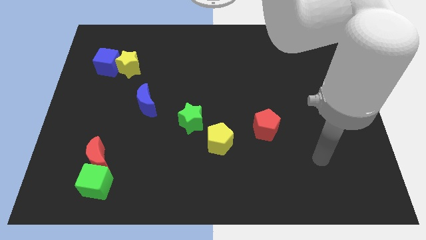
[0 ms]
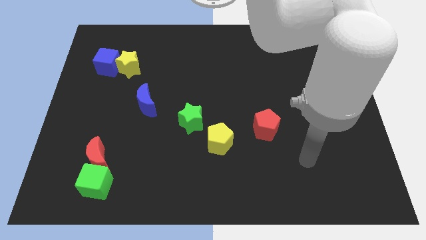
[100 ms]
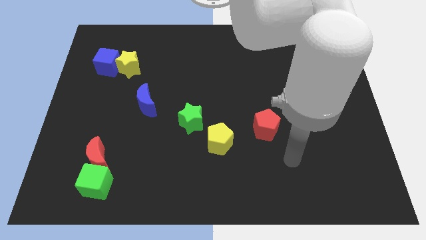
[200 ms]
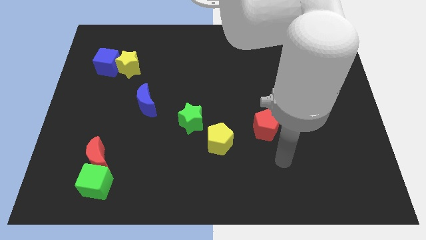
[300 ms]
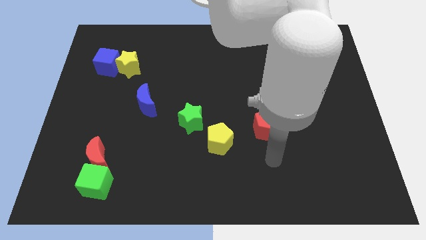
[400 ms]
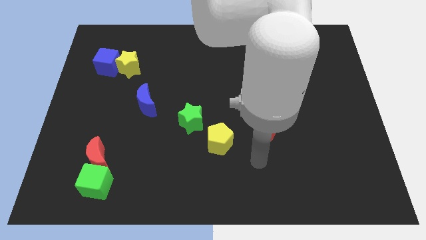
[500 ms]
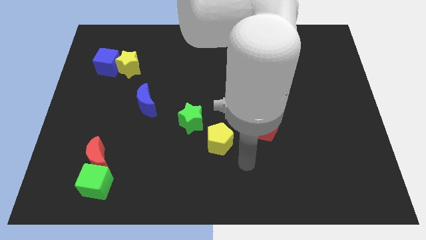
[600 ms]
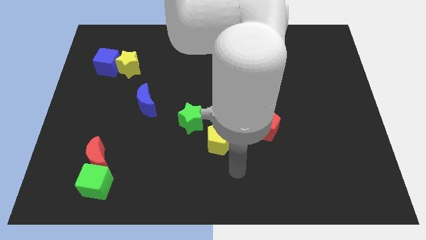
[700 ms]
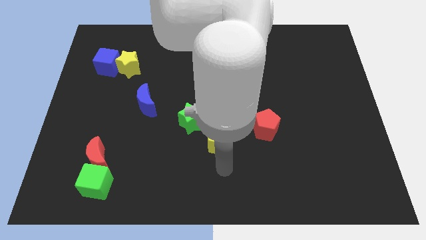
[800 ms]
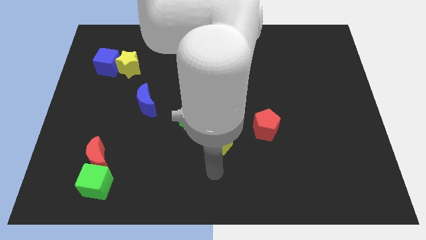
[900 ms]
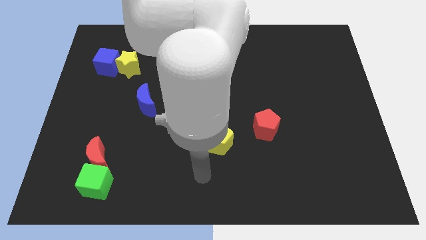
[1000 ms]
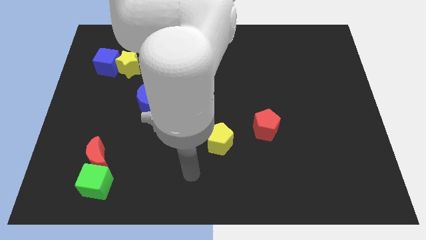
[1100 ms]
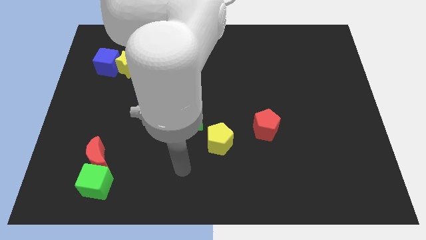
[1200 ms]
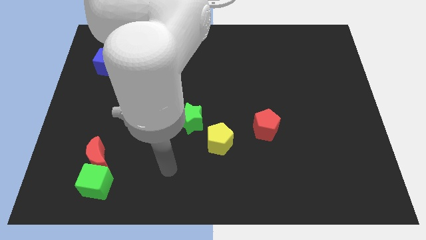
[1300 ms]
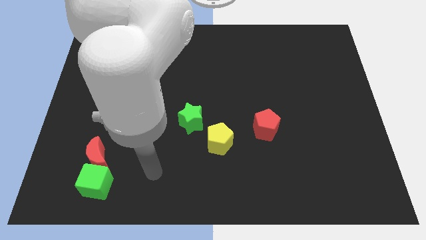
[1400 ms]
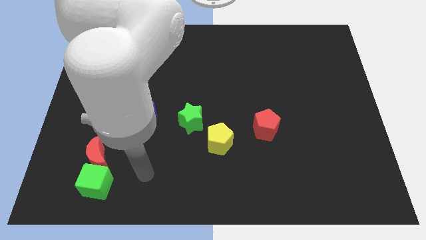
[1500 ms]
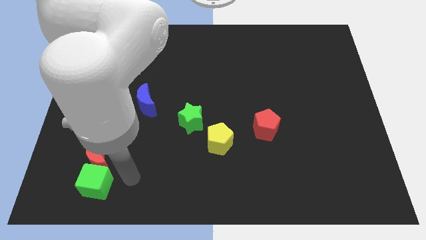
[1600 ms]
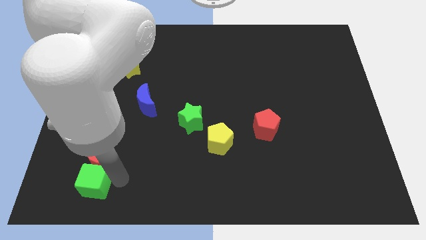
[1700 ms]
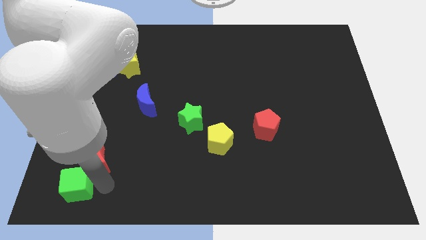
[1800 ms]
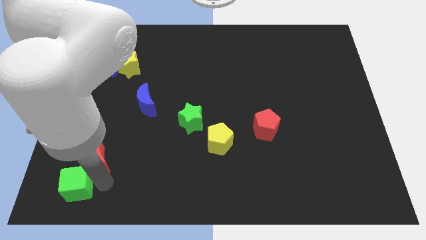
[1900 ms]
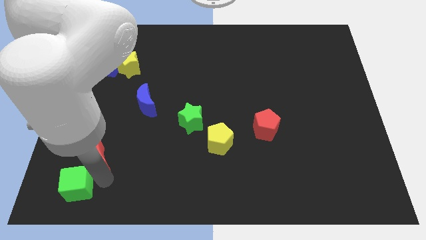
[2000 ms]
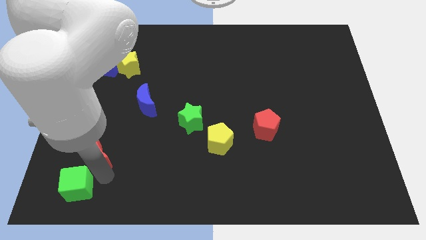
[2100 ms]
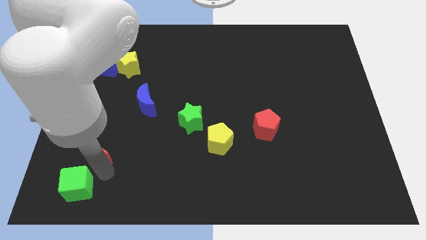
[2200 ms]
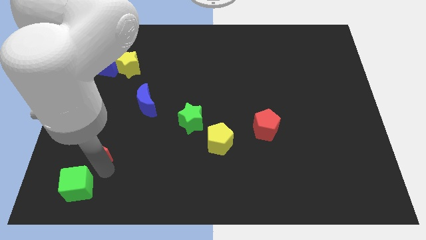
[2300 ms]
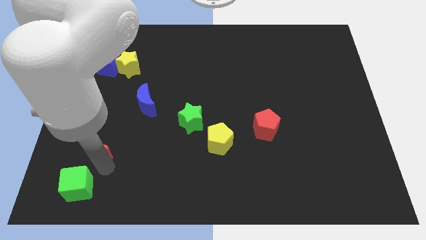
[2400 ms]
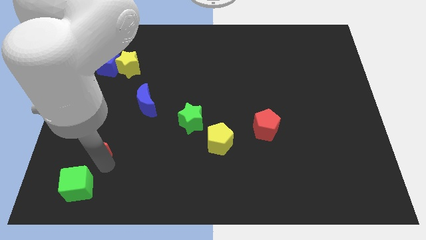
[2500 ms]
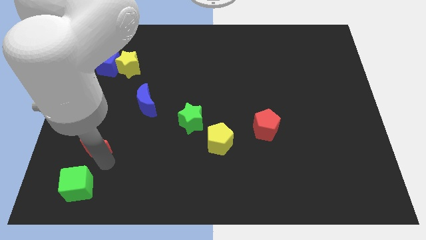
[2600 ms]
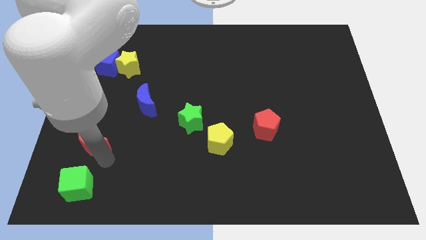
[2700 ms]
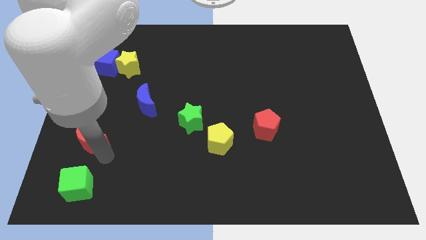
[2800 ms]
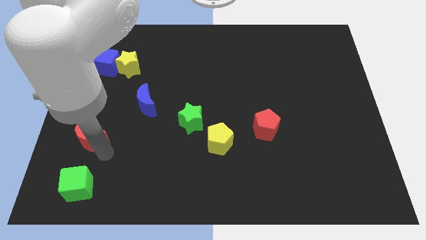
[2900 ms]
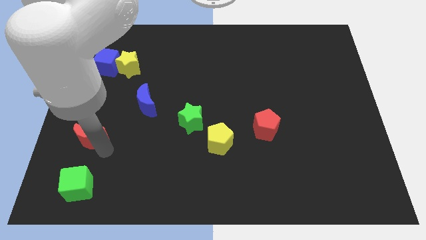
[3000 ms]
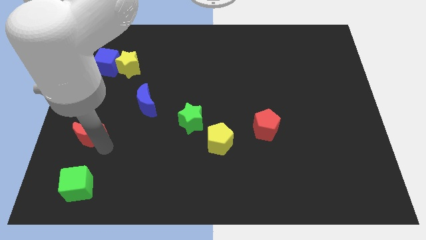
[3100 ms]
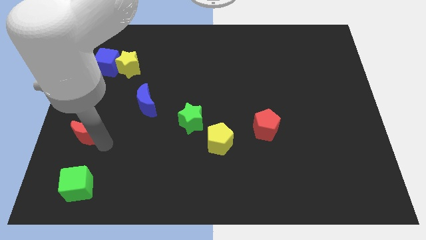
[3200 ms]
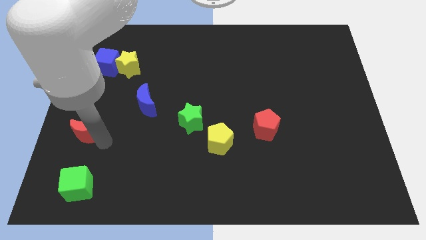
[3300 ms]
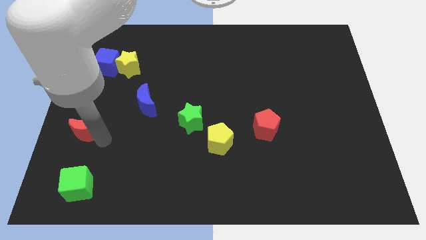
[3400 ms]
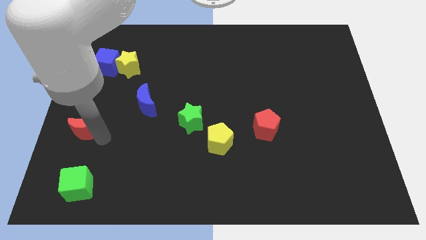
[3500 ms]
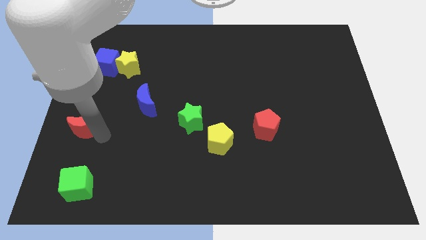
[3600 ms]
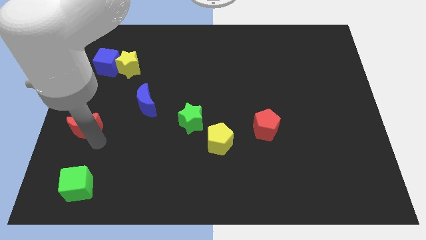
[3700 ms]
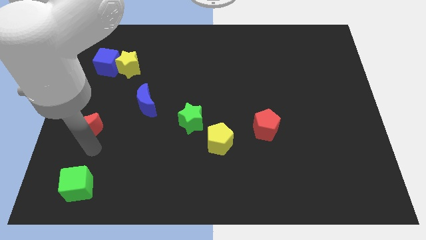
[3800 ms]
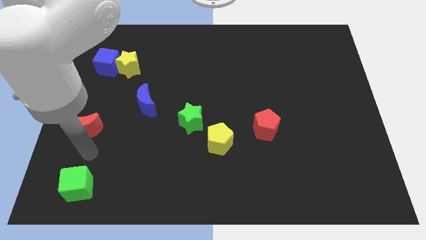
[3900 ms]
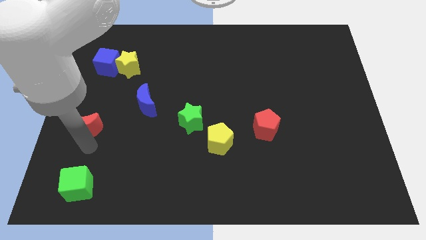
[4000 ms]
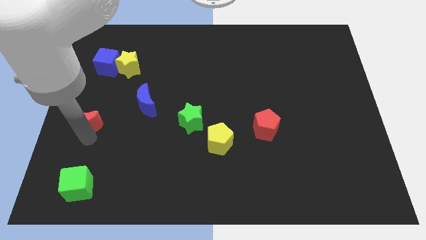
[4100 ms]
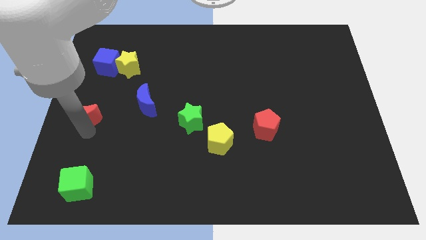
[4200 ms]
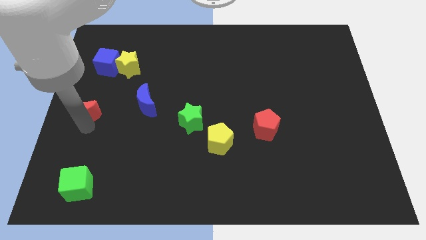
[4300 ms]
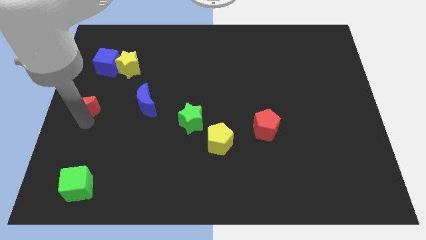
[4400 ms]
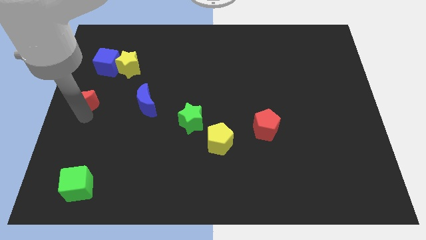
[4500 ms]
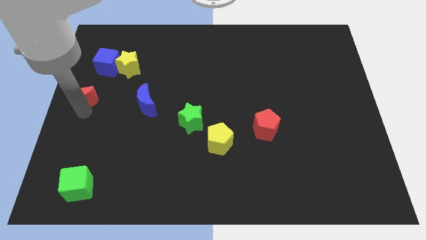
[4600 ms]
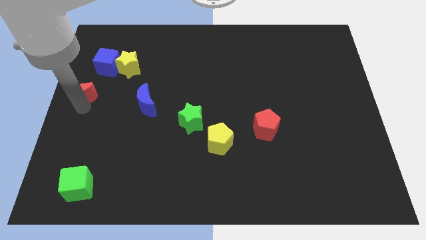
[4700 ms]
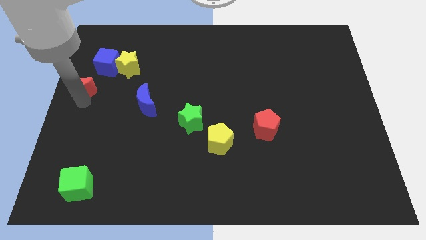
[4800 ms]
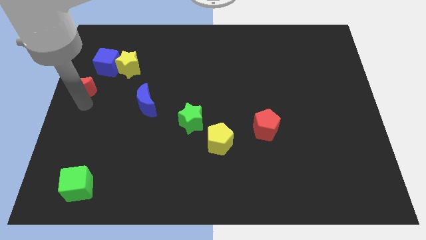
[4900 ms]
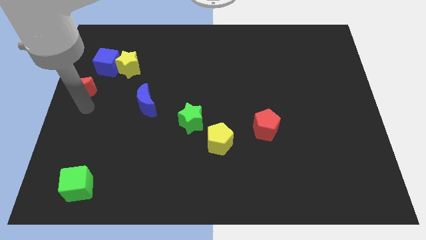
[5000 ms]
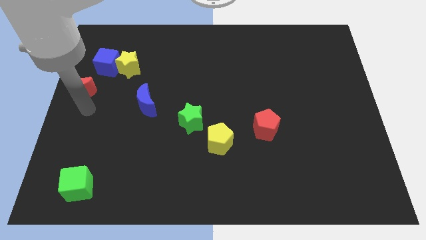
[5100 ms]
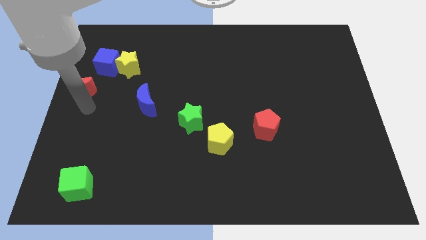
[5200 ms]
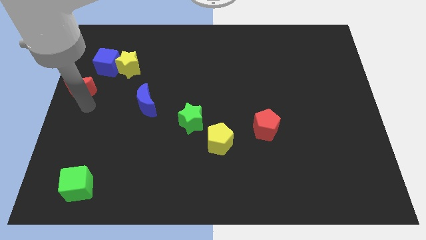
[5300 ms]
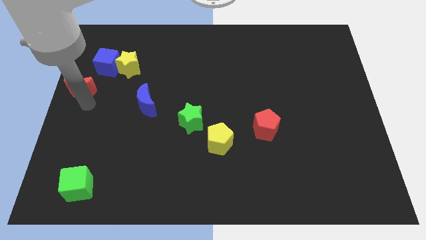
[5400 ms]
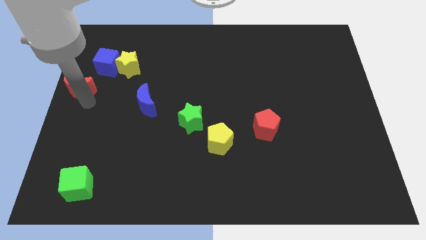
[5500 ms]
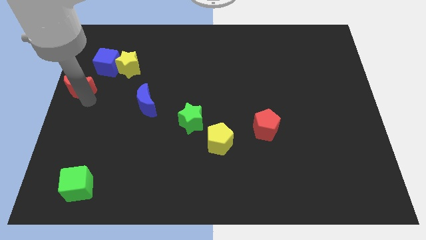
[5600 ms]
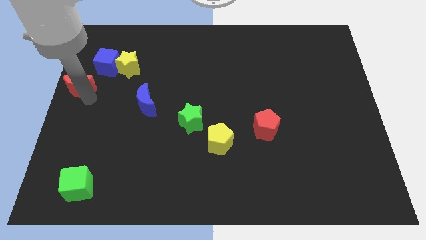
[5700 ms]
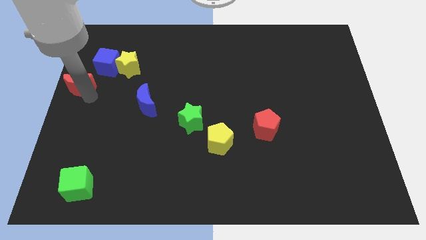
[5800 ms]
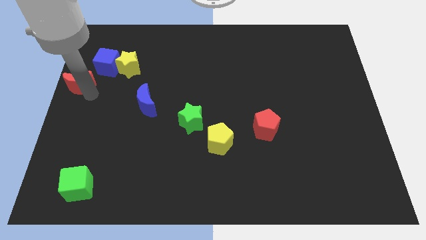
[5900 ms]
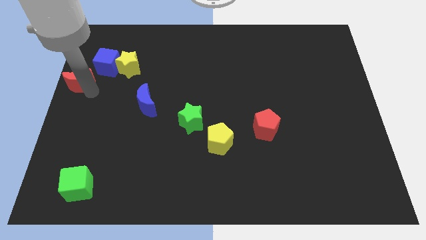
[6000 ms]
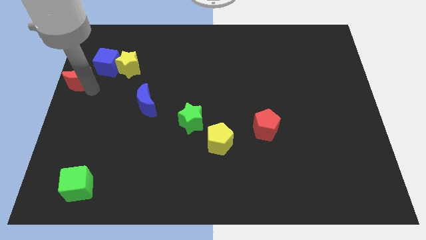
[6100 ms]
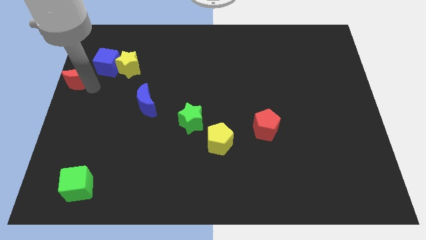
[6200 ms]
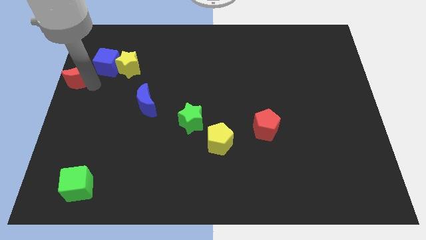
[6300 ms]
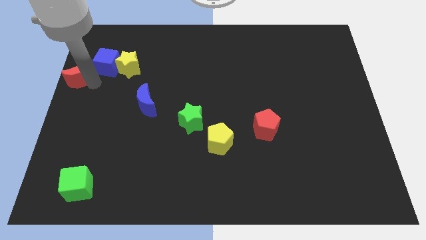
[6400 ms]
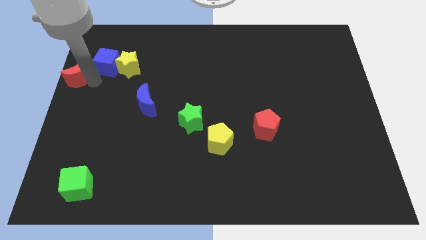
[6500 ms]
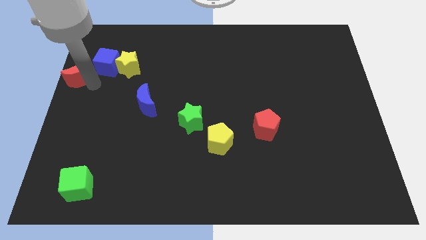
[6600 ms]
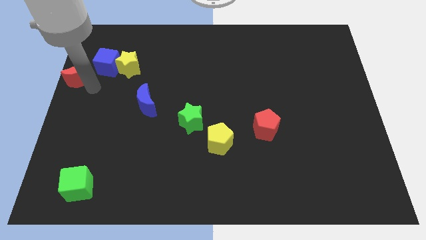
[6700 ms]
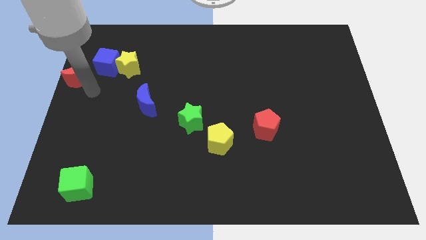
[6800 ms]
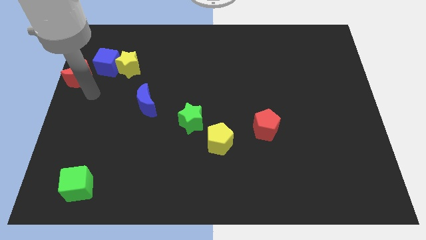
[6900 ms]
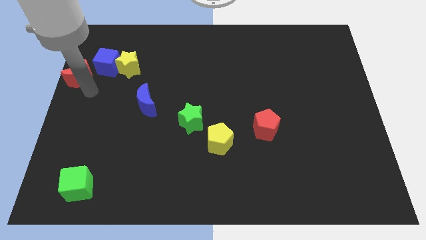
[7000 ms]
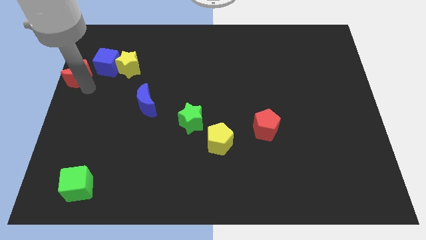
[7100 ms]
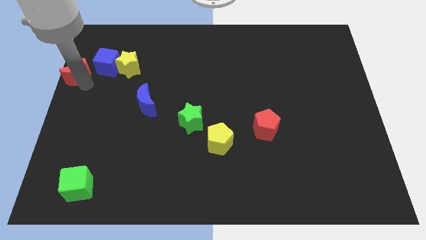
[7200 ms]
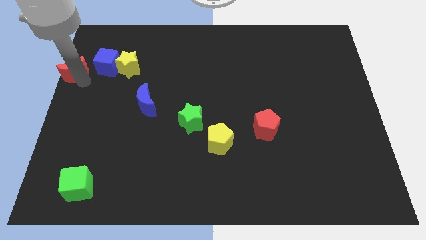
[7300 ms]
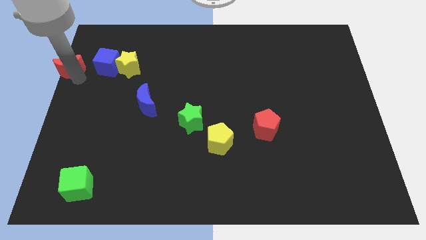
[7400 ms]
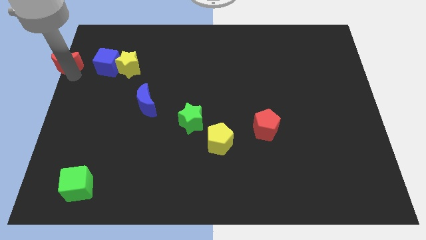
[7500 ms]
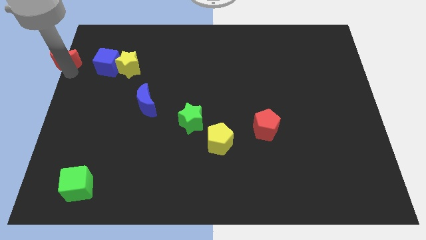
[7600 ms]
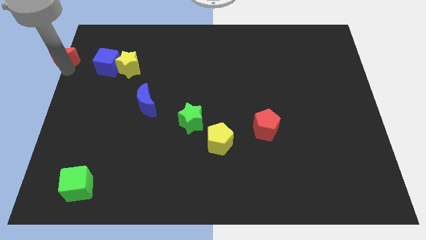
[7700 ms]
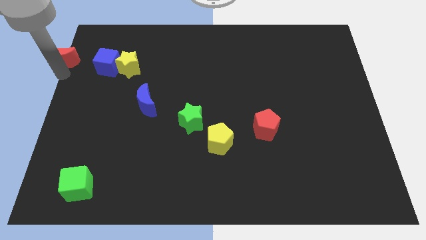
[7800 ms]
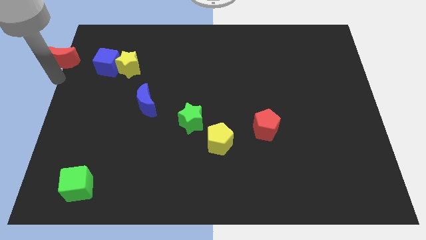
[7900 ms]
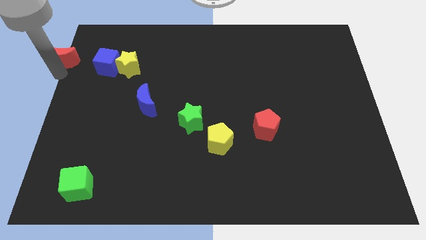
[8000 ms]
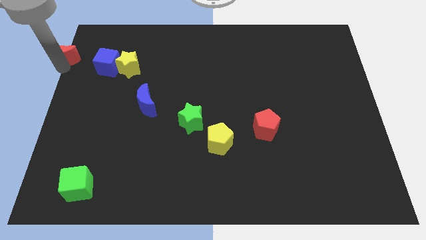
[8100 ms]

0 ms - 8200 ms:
push the red moon to the upper left corner
